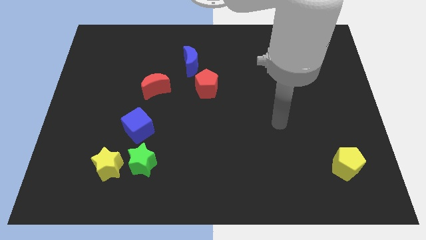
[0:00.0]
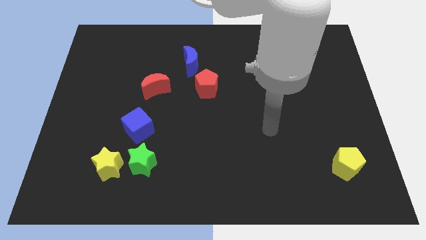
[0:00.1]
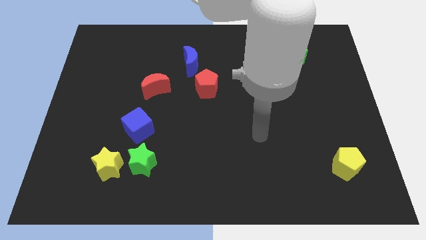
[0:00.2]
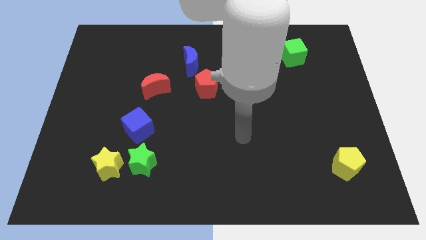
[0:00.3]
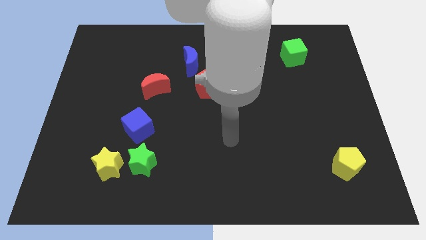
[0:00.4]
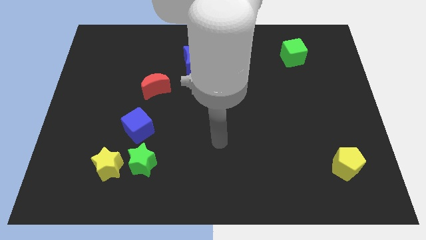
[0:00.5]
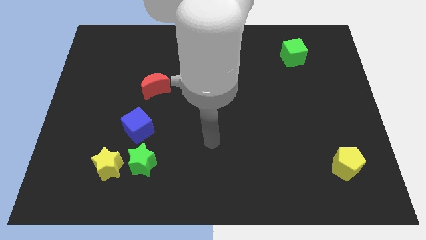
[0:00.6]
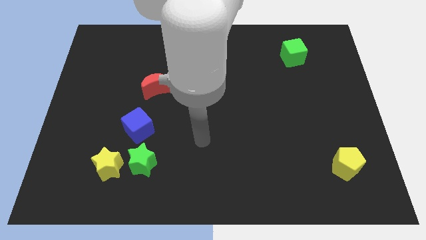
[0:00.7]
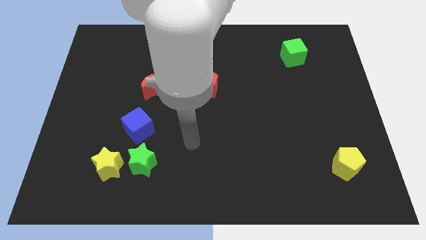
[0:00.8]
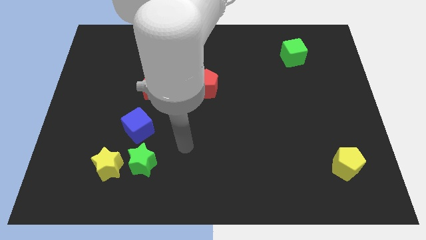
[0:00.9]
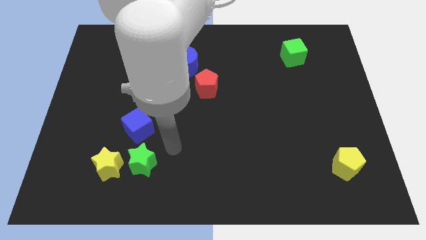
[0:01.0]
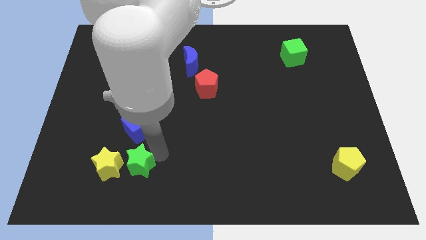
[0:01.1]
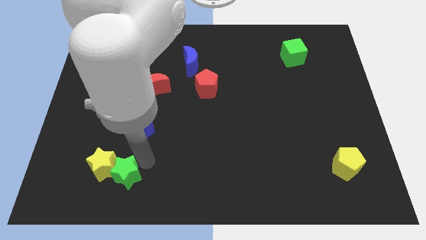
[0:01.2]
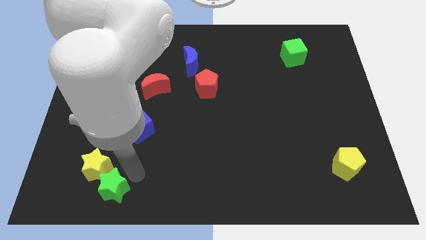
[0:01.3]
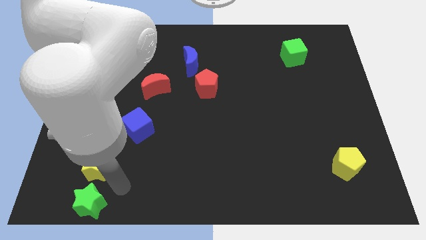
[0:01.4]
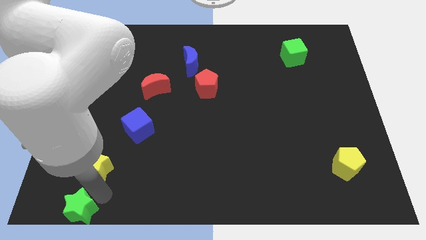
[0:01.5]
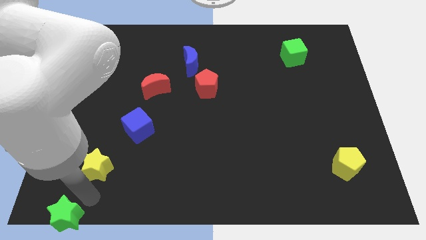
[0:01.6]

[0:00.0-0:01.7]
pull the yellow star apart from the green star

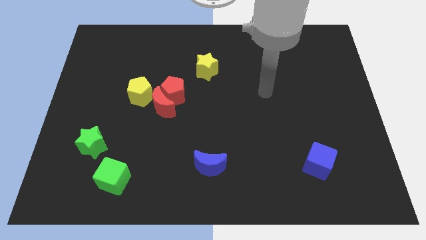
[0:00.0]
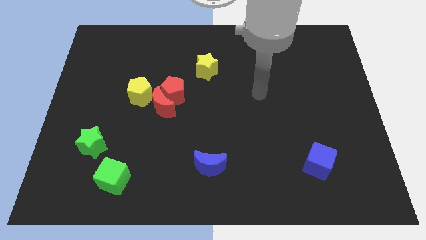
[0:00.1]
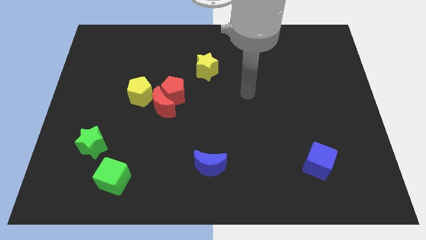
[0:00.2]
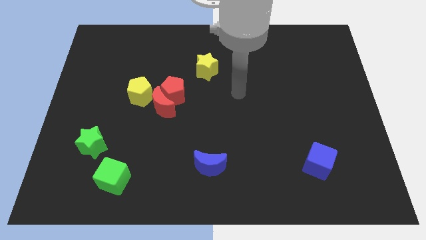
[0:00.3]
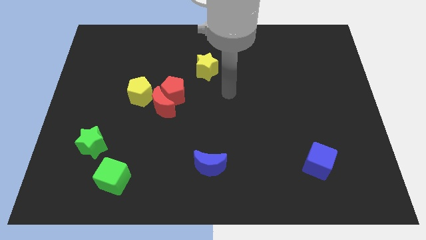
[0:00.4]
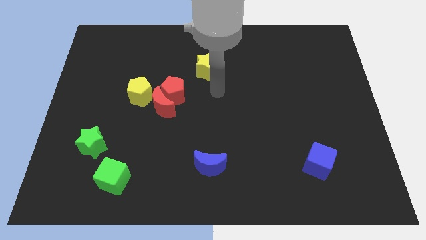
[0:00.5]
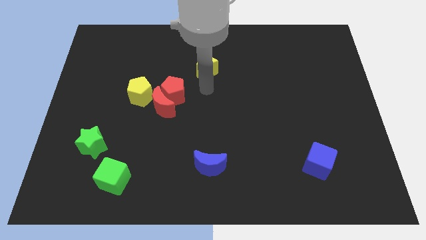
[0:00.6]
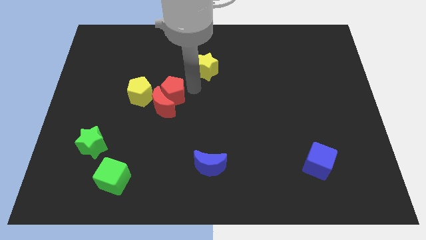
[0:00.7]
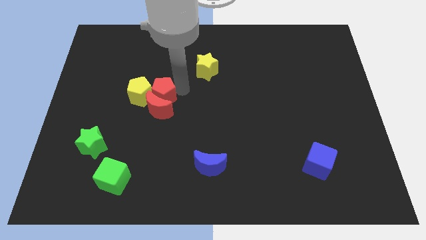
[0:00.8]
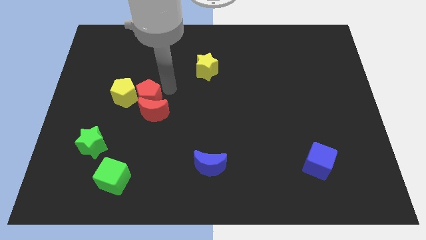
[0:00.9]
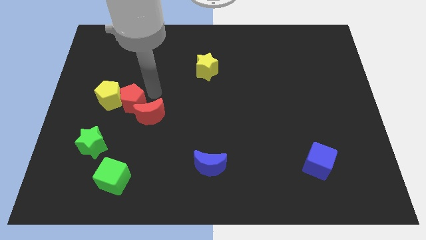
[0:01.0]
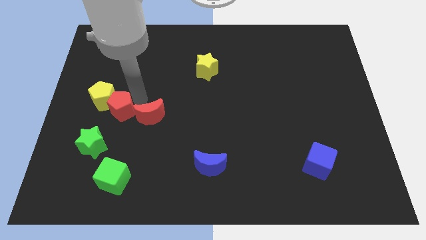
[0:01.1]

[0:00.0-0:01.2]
pull the red moon apart from the red pentagon and yellow pentagon

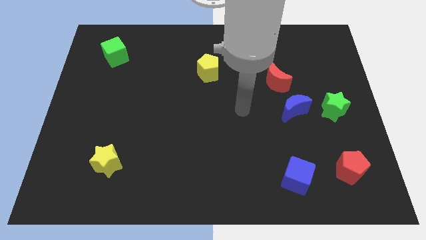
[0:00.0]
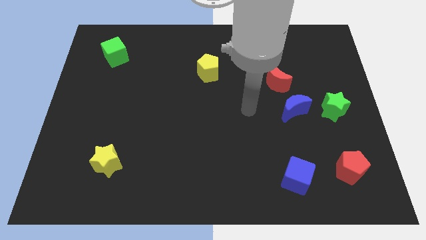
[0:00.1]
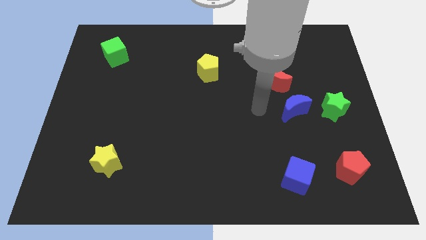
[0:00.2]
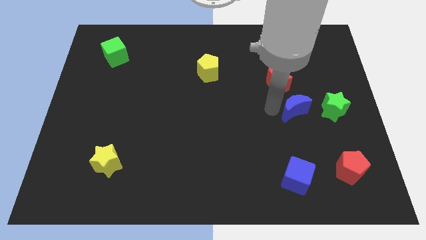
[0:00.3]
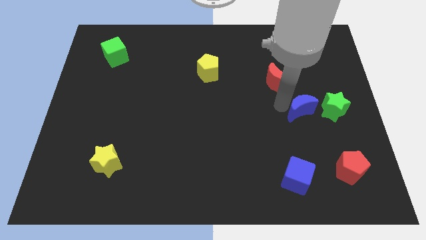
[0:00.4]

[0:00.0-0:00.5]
move the red moon away from the blue moon

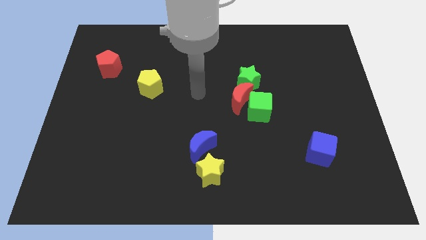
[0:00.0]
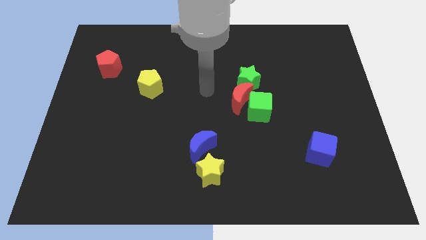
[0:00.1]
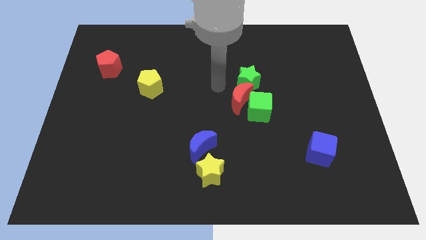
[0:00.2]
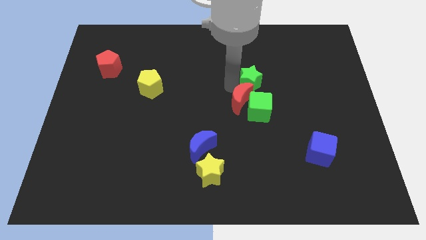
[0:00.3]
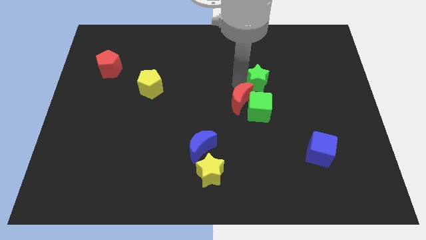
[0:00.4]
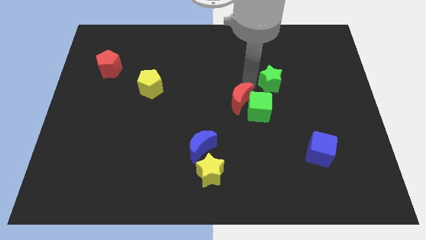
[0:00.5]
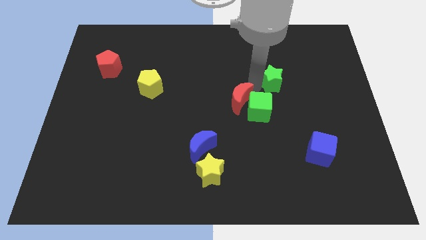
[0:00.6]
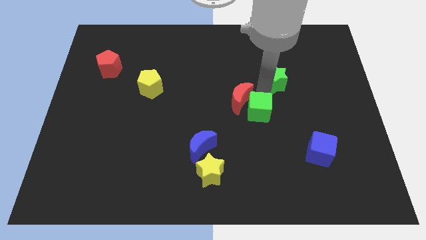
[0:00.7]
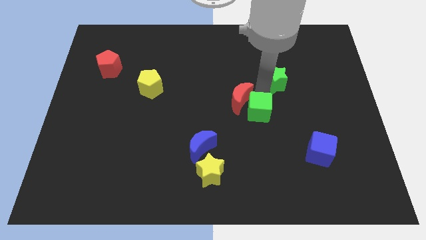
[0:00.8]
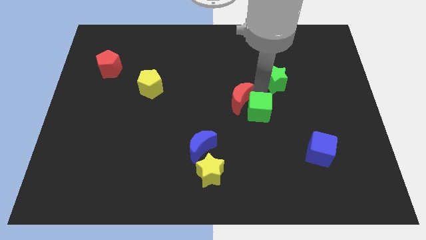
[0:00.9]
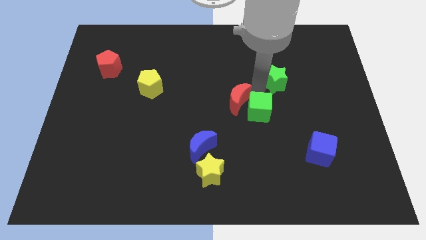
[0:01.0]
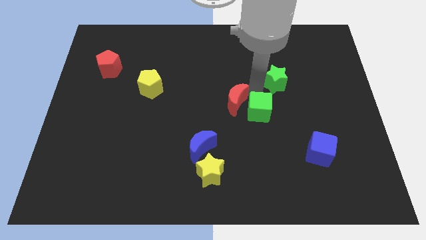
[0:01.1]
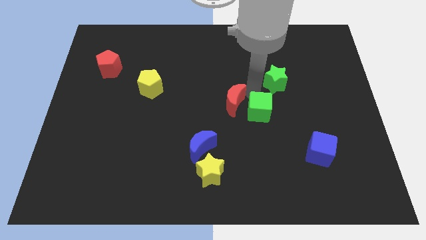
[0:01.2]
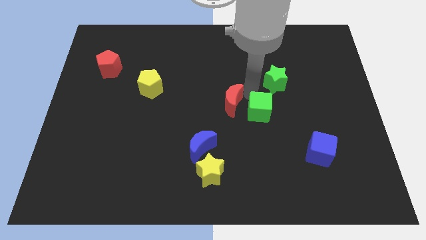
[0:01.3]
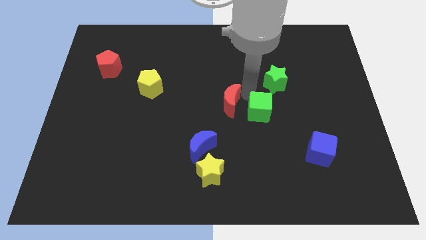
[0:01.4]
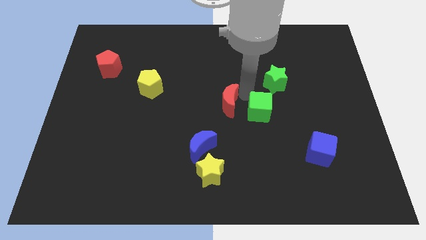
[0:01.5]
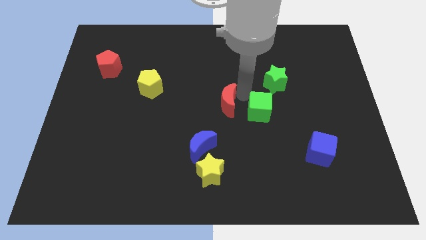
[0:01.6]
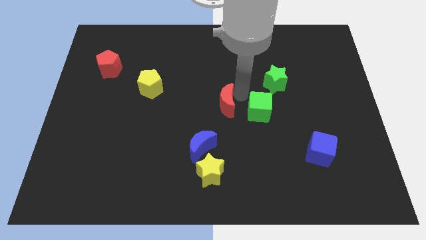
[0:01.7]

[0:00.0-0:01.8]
move the red moon away from the green cube and green star

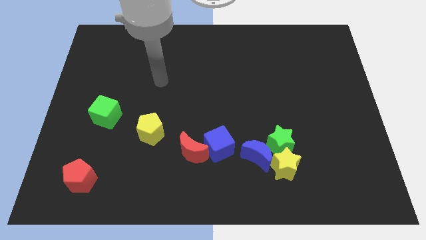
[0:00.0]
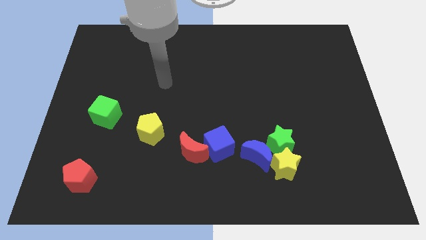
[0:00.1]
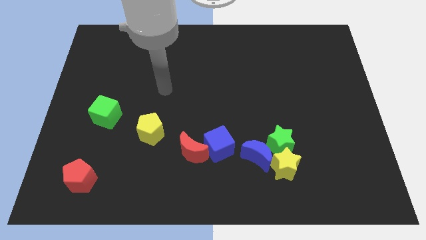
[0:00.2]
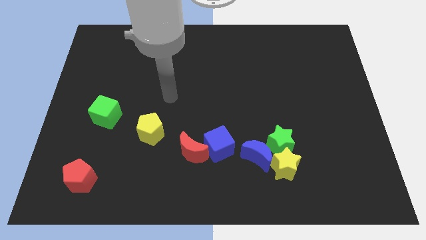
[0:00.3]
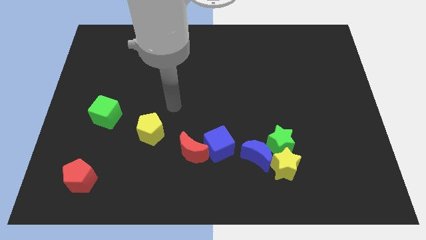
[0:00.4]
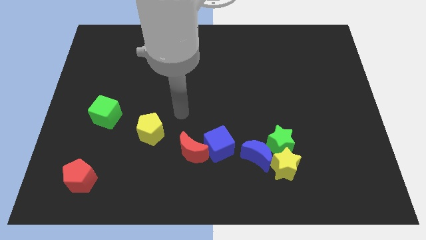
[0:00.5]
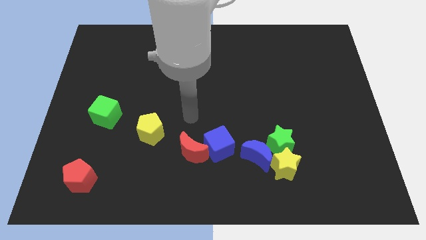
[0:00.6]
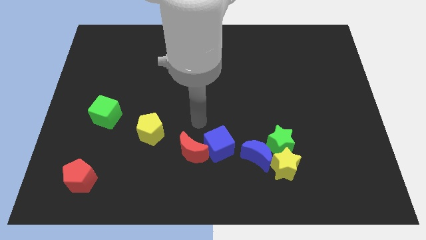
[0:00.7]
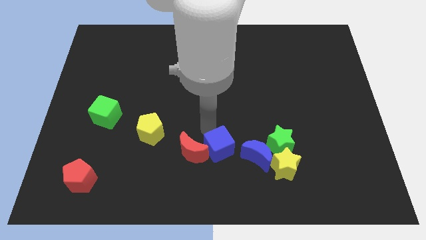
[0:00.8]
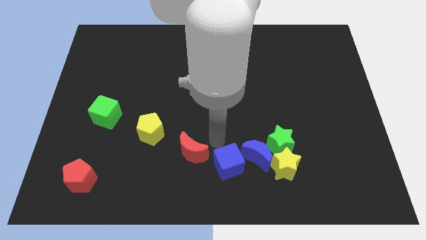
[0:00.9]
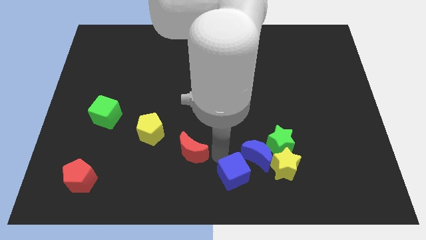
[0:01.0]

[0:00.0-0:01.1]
pull the red moon apart from the blue cube

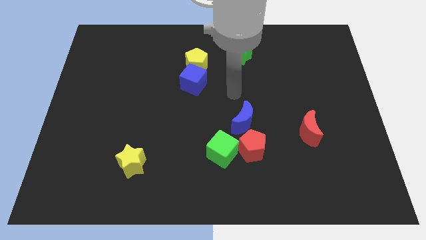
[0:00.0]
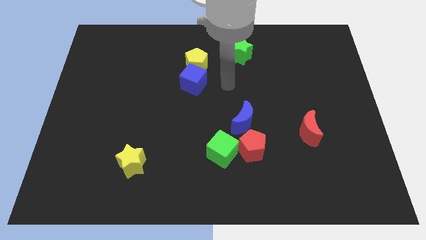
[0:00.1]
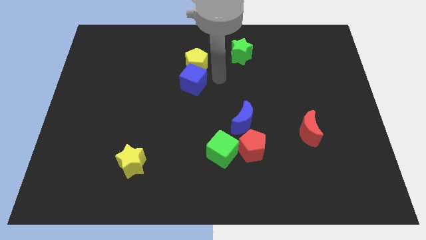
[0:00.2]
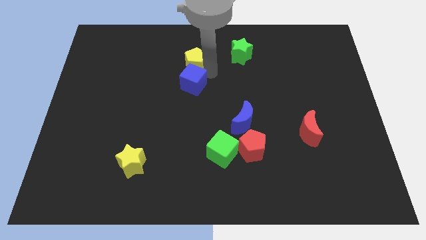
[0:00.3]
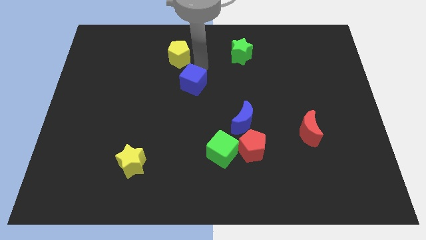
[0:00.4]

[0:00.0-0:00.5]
move the blue cube away from the yellow pentagon

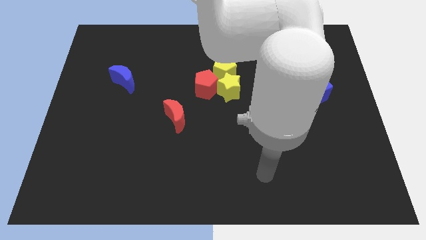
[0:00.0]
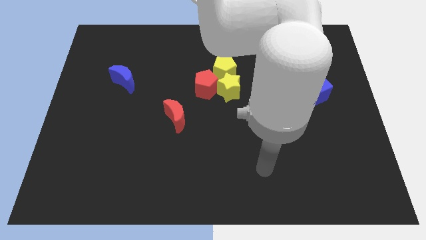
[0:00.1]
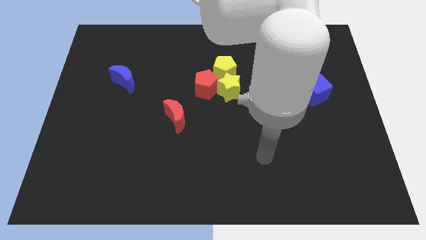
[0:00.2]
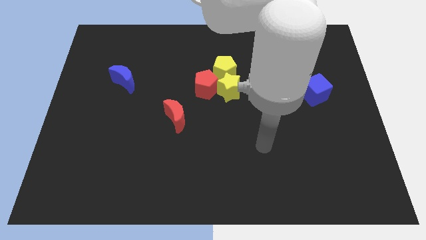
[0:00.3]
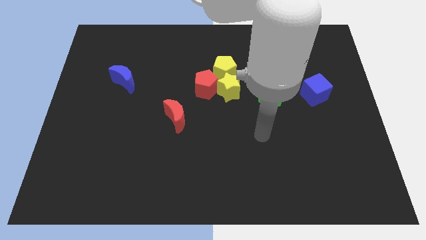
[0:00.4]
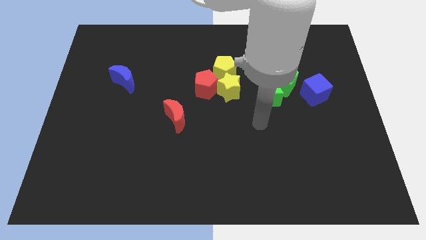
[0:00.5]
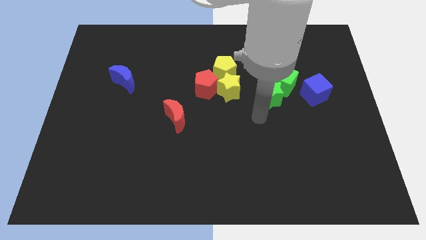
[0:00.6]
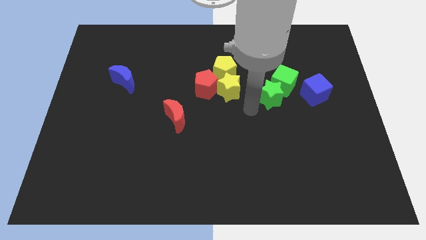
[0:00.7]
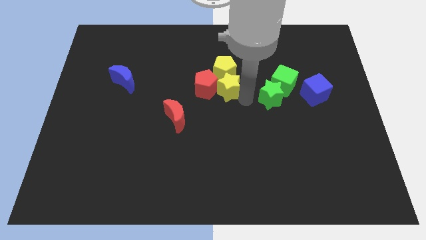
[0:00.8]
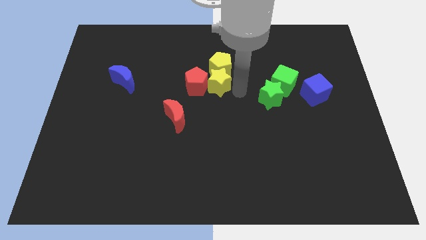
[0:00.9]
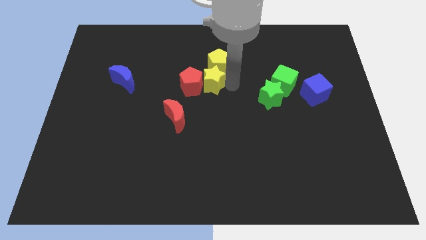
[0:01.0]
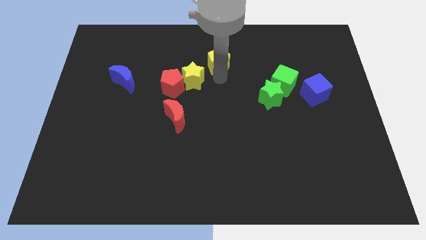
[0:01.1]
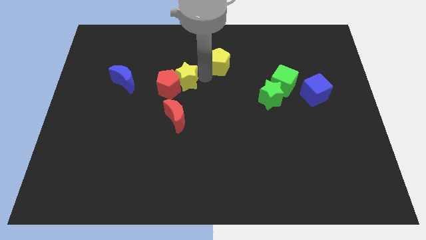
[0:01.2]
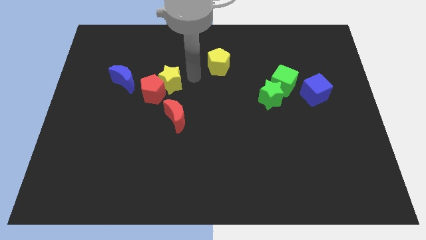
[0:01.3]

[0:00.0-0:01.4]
separate the red pentagon from the yellow star and yellow pentagon

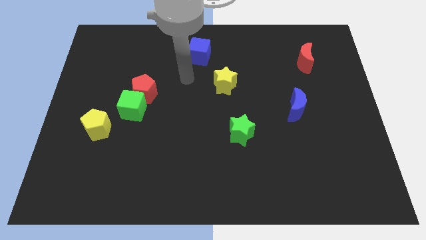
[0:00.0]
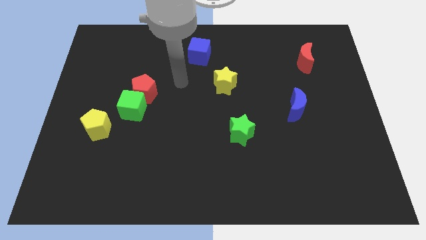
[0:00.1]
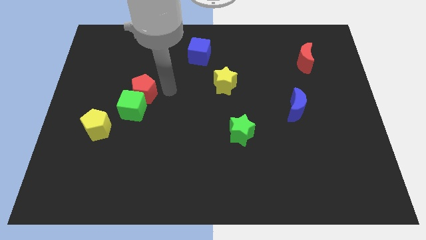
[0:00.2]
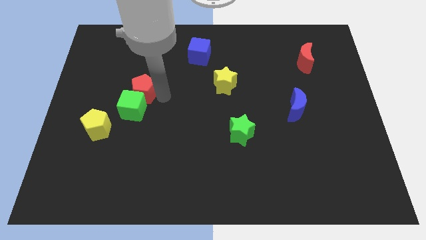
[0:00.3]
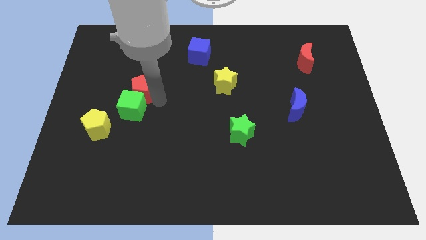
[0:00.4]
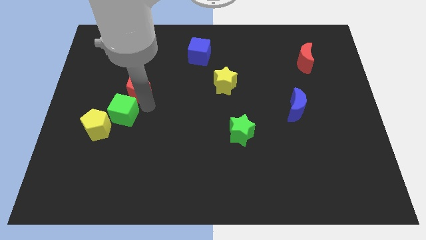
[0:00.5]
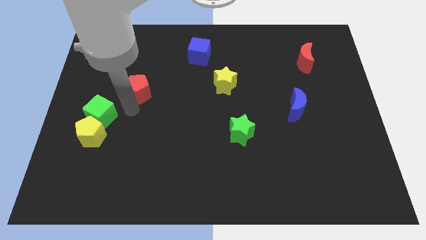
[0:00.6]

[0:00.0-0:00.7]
move the red pentagon away from the green cube

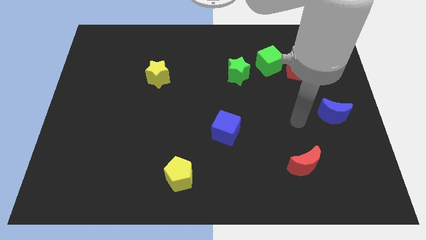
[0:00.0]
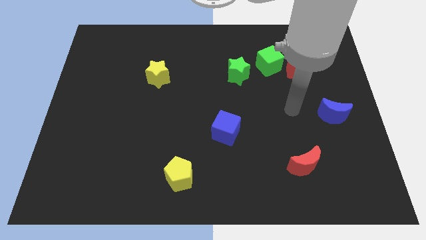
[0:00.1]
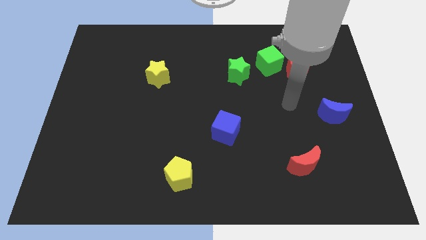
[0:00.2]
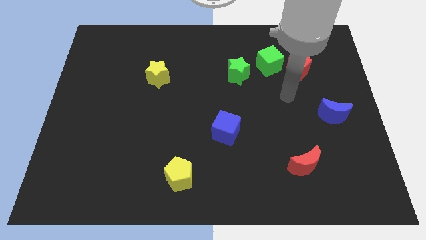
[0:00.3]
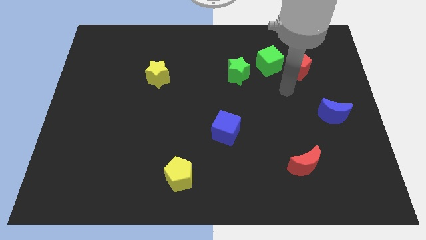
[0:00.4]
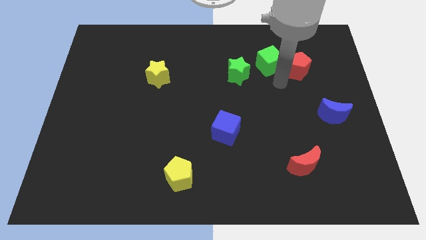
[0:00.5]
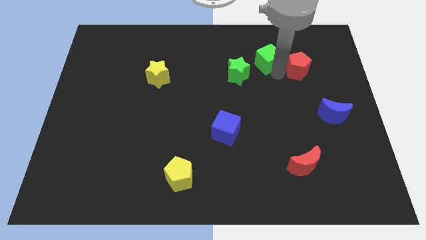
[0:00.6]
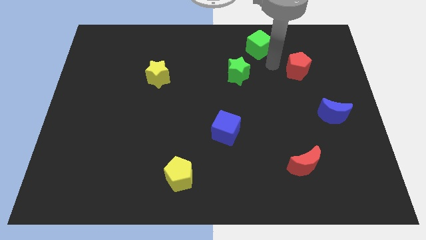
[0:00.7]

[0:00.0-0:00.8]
pull the red pentagon apart from the green cube
